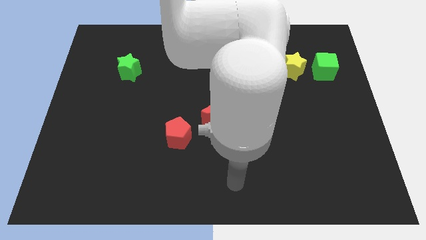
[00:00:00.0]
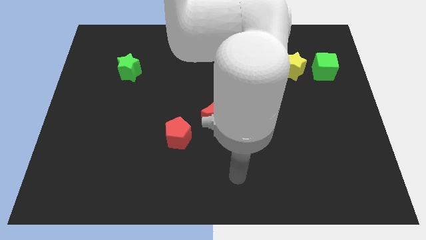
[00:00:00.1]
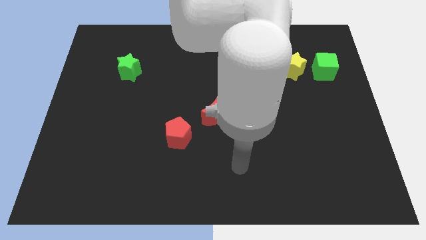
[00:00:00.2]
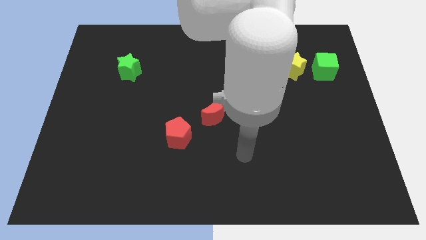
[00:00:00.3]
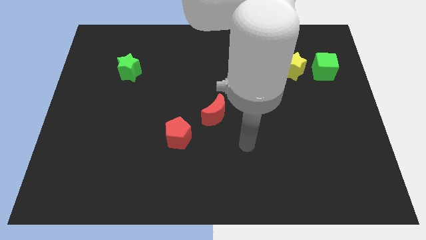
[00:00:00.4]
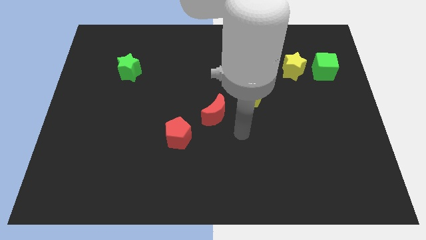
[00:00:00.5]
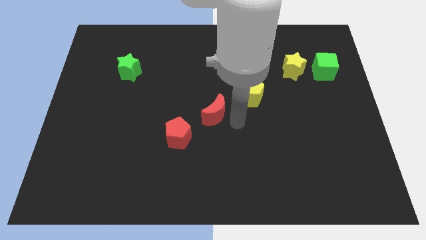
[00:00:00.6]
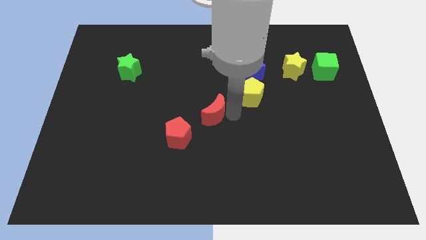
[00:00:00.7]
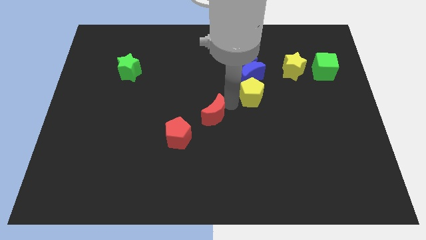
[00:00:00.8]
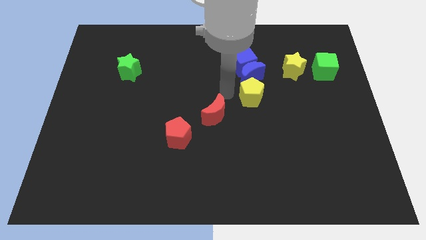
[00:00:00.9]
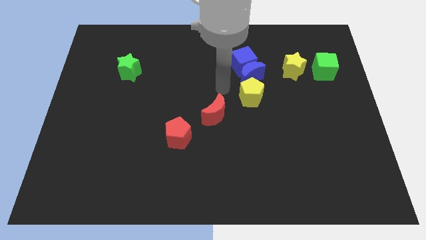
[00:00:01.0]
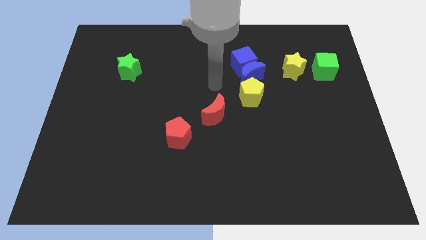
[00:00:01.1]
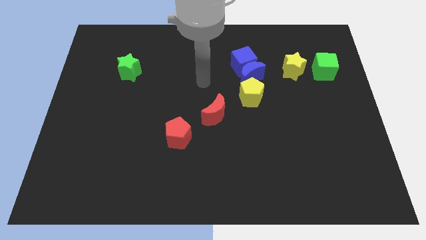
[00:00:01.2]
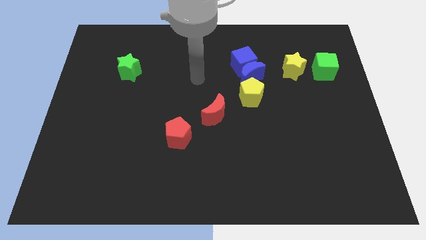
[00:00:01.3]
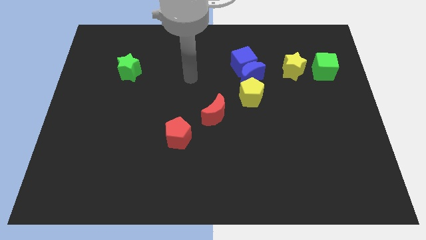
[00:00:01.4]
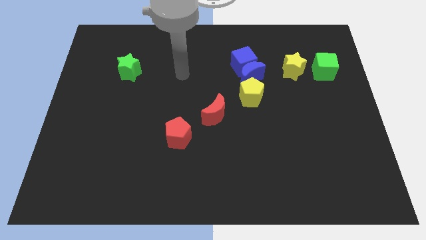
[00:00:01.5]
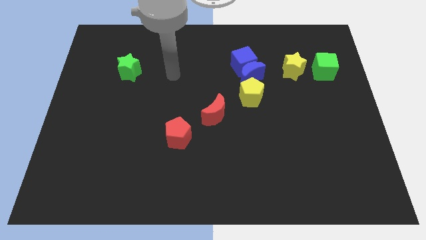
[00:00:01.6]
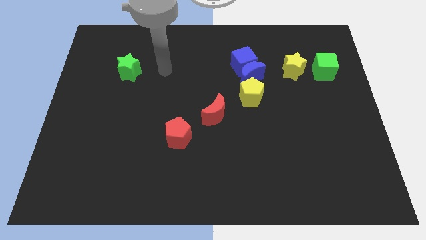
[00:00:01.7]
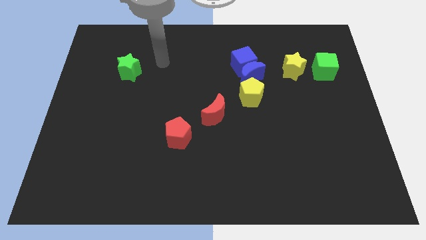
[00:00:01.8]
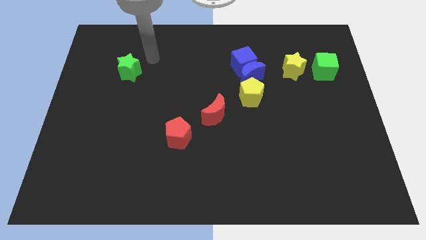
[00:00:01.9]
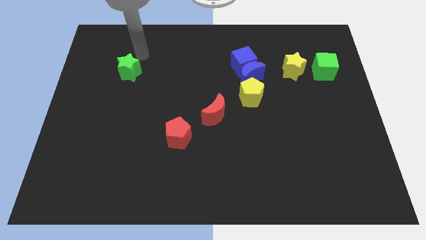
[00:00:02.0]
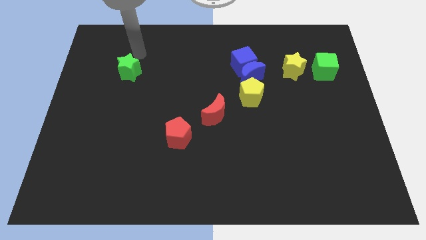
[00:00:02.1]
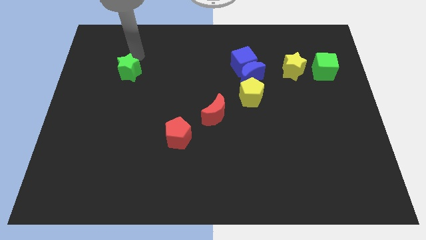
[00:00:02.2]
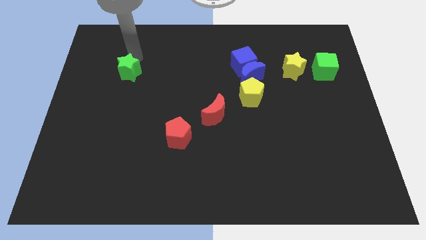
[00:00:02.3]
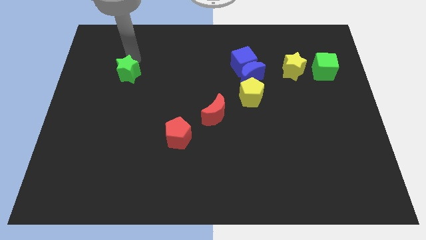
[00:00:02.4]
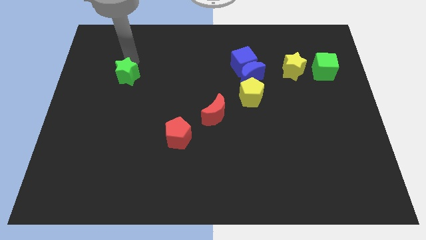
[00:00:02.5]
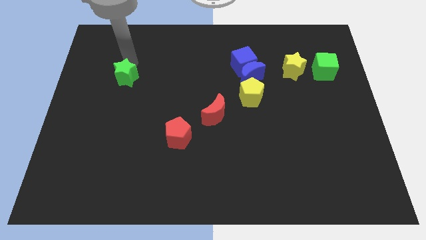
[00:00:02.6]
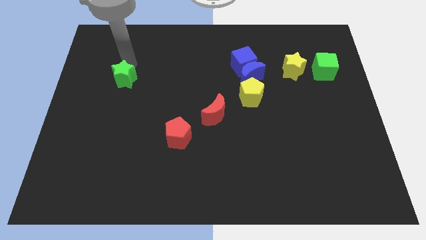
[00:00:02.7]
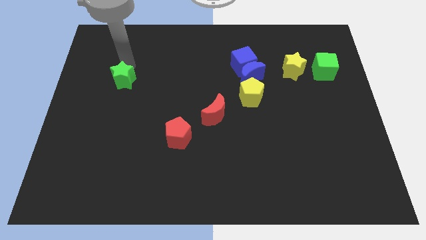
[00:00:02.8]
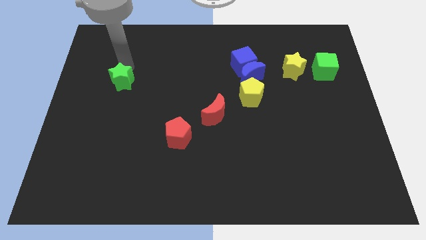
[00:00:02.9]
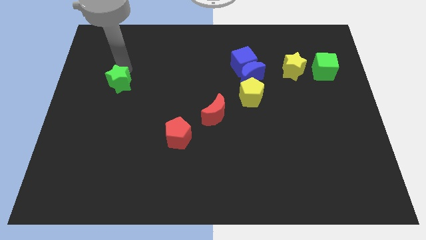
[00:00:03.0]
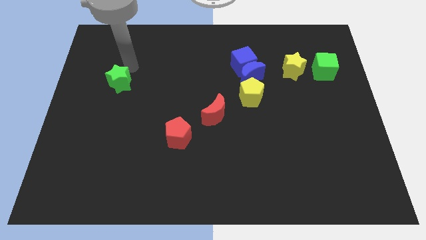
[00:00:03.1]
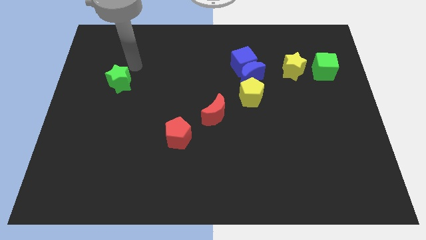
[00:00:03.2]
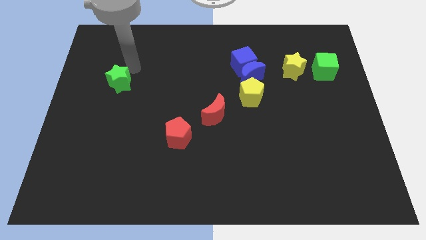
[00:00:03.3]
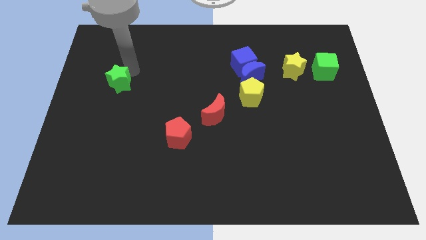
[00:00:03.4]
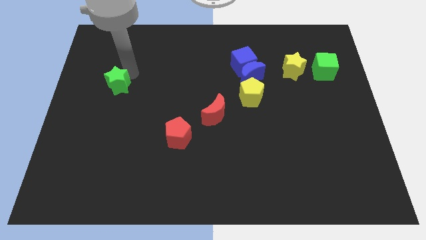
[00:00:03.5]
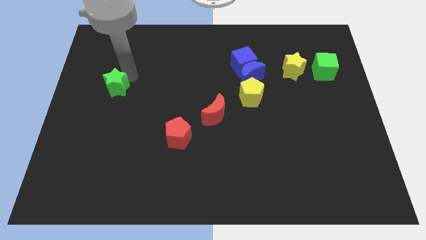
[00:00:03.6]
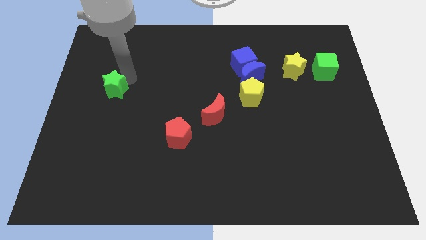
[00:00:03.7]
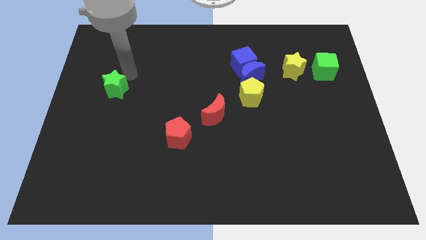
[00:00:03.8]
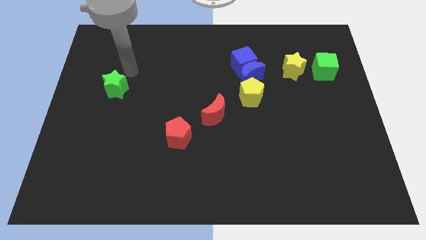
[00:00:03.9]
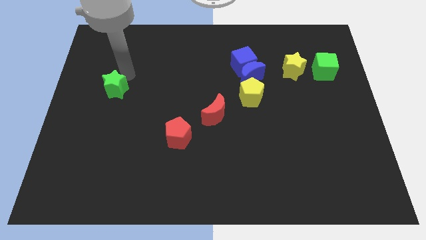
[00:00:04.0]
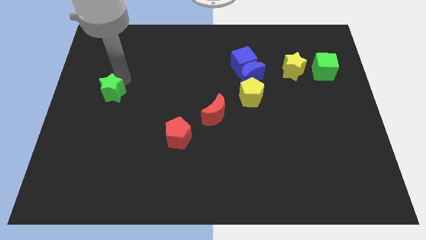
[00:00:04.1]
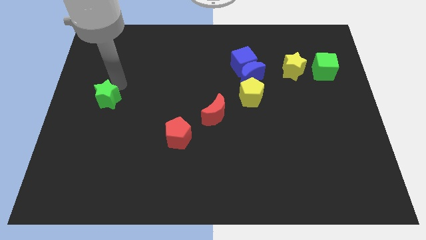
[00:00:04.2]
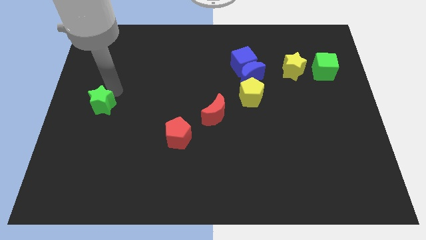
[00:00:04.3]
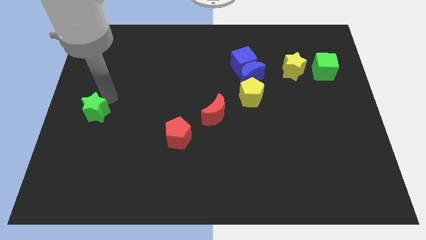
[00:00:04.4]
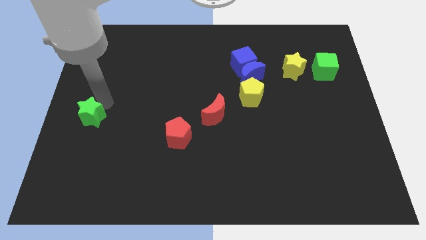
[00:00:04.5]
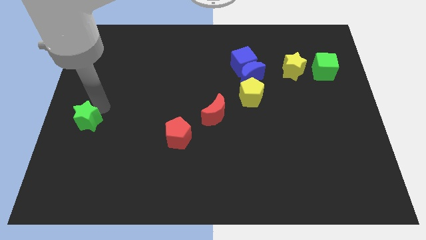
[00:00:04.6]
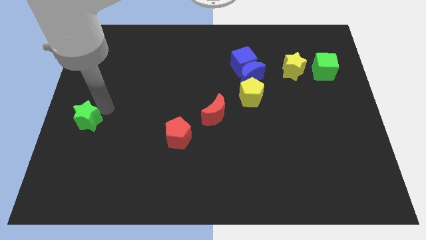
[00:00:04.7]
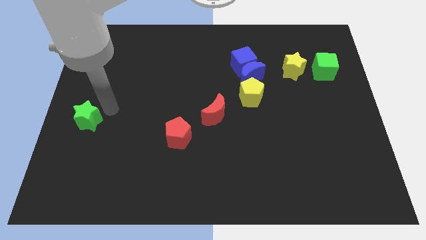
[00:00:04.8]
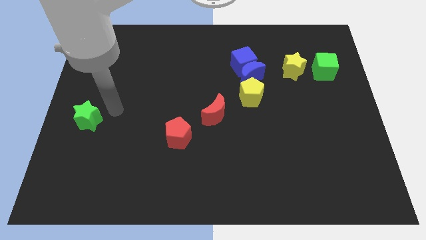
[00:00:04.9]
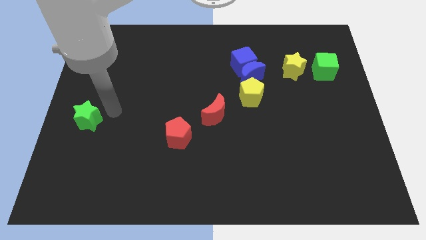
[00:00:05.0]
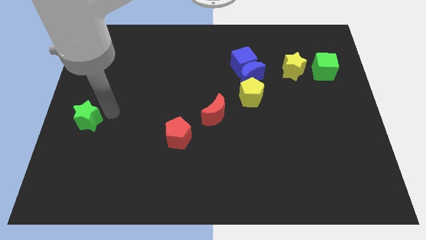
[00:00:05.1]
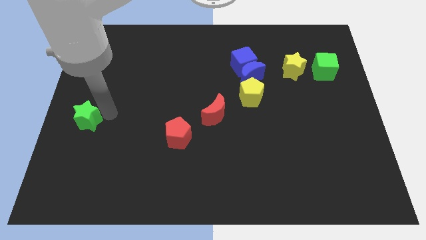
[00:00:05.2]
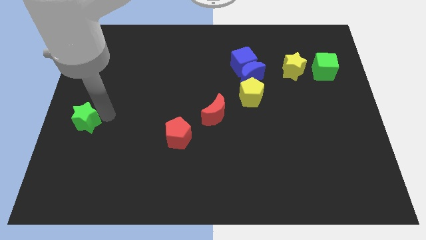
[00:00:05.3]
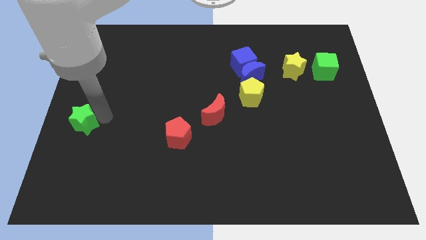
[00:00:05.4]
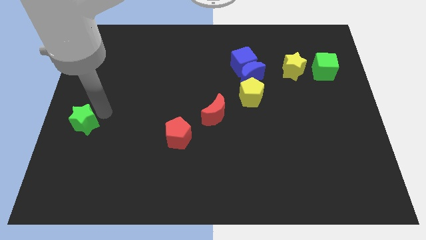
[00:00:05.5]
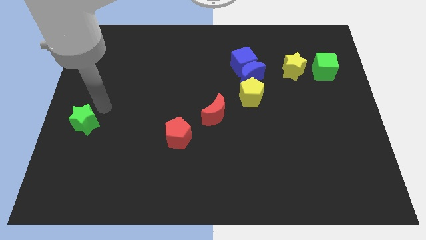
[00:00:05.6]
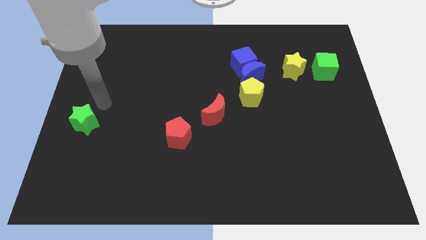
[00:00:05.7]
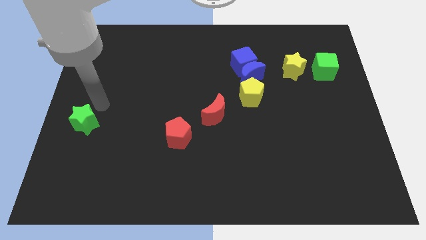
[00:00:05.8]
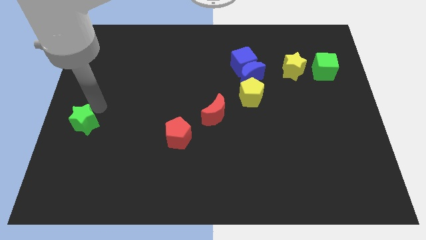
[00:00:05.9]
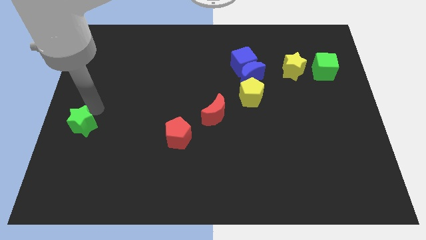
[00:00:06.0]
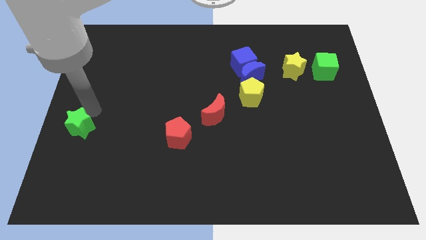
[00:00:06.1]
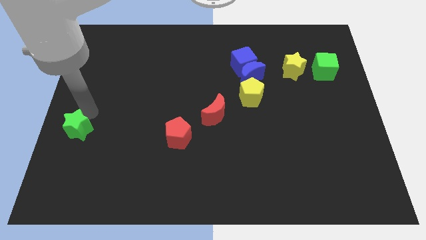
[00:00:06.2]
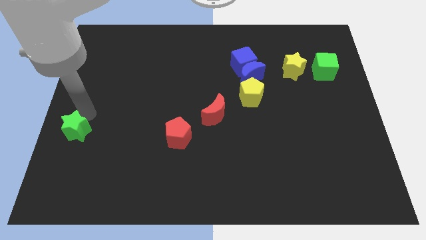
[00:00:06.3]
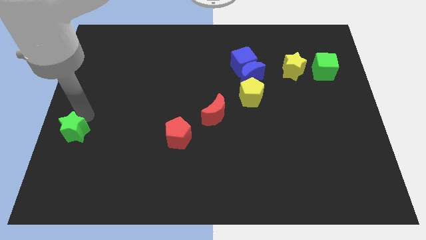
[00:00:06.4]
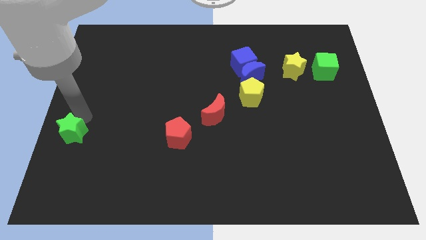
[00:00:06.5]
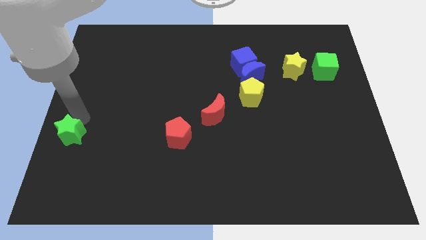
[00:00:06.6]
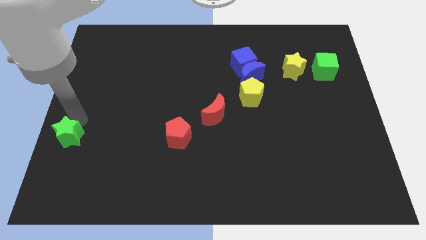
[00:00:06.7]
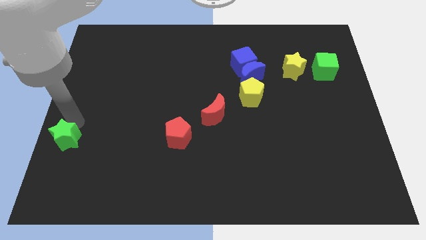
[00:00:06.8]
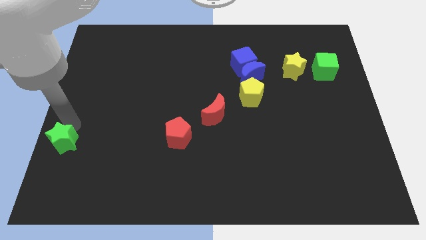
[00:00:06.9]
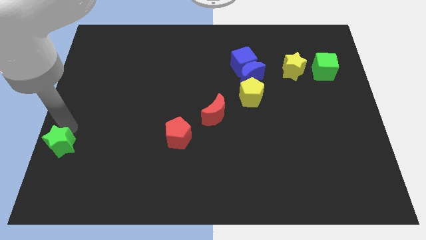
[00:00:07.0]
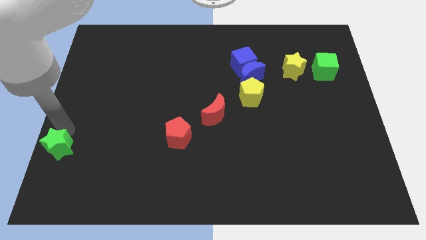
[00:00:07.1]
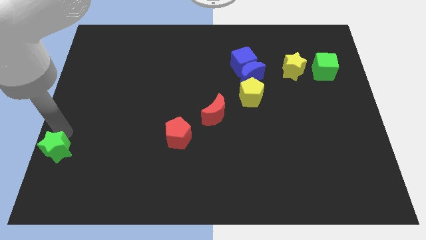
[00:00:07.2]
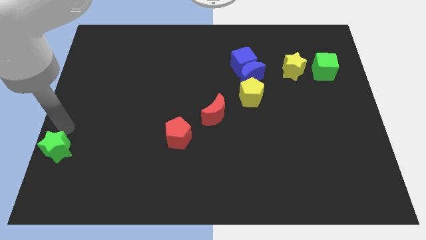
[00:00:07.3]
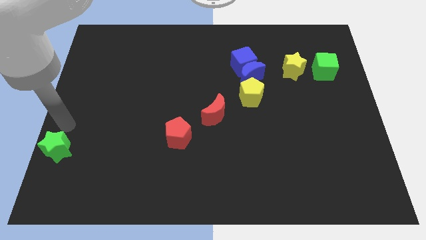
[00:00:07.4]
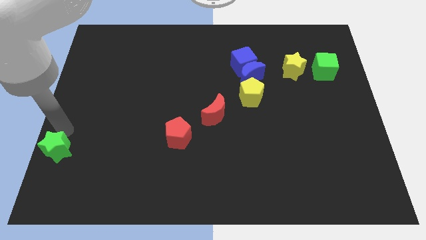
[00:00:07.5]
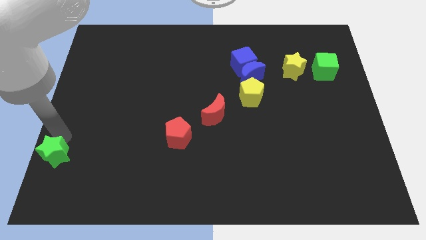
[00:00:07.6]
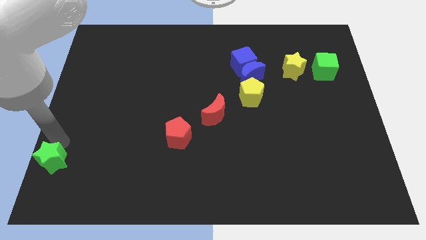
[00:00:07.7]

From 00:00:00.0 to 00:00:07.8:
push the green star to the bottom left corner
